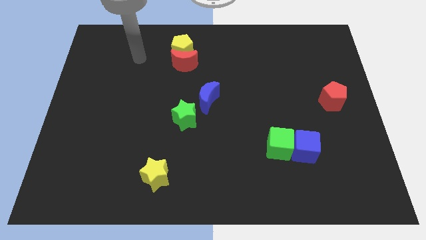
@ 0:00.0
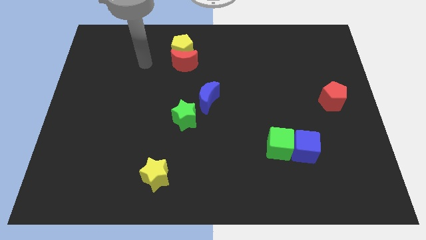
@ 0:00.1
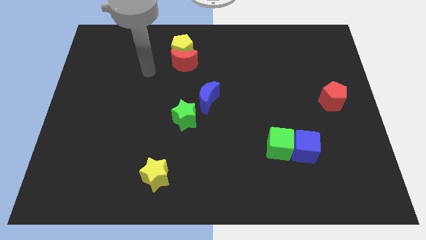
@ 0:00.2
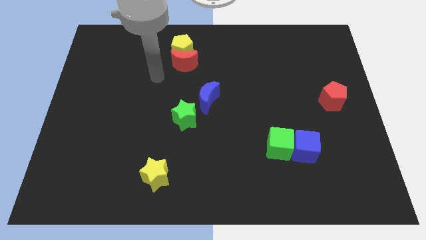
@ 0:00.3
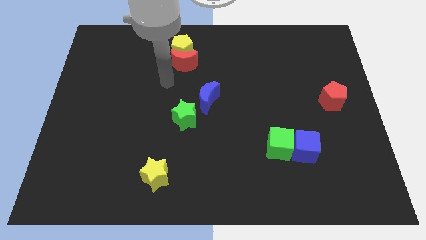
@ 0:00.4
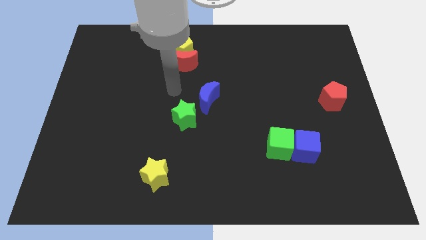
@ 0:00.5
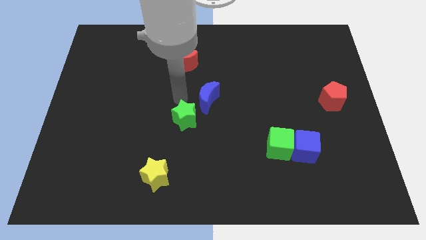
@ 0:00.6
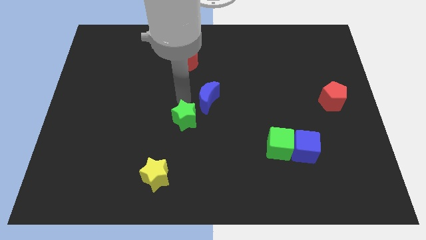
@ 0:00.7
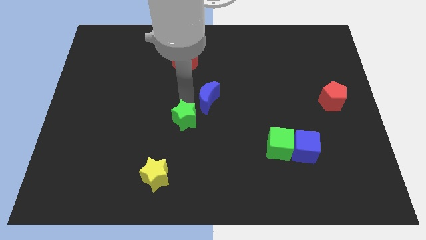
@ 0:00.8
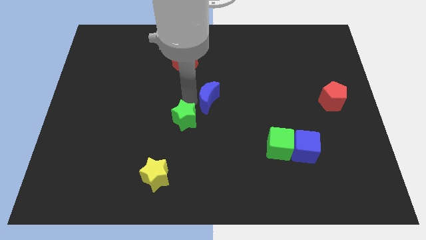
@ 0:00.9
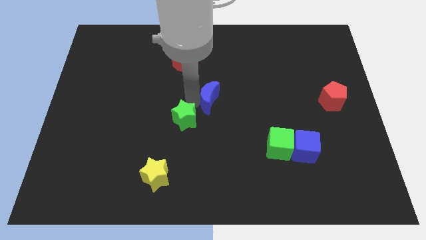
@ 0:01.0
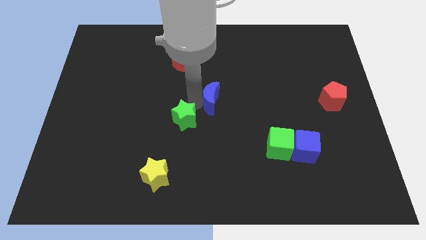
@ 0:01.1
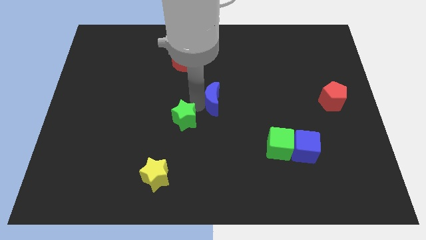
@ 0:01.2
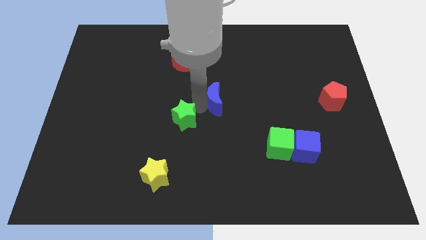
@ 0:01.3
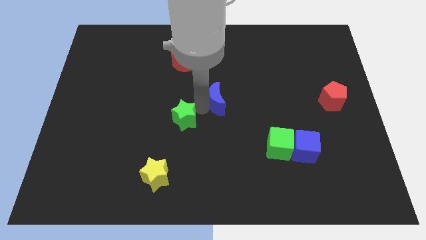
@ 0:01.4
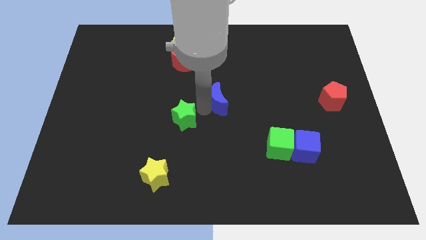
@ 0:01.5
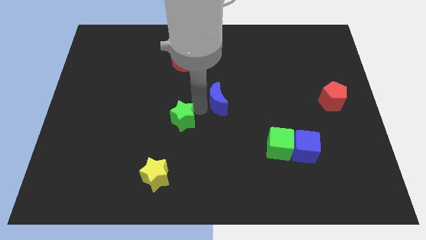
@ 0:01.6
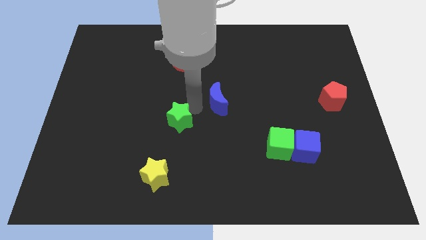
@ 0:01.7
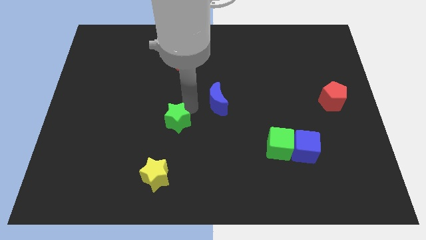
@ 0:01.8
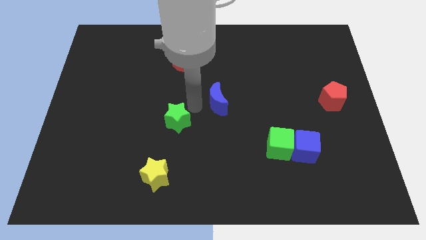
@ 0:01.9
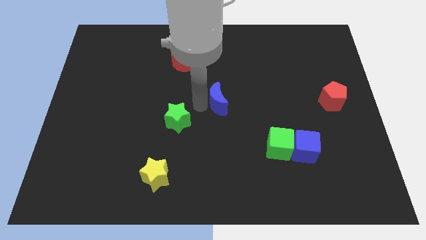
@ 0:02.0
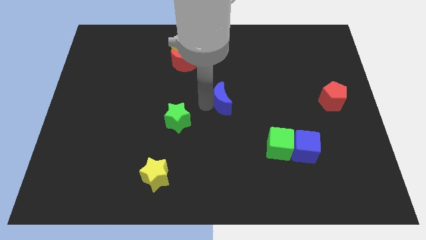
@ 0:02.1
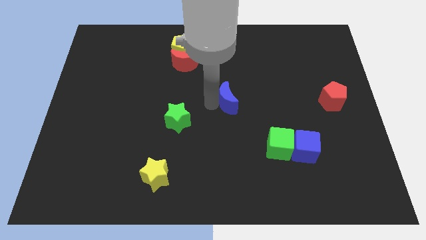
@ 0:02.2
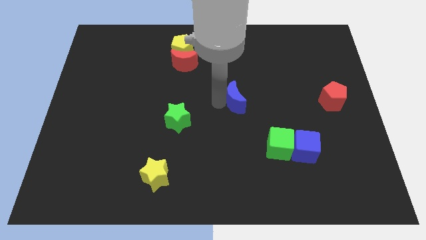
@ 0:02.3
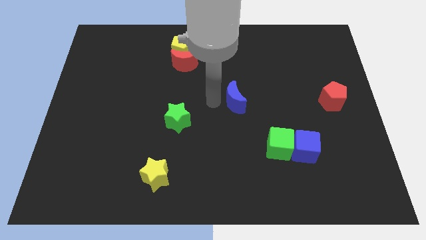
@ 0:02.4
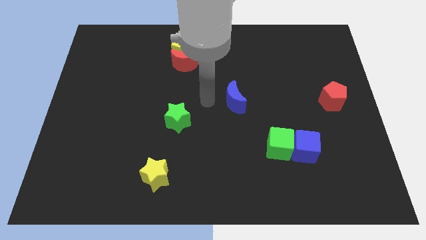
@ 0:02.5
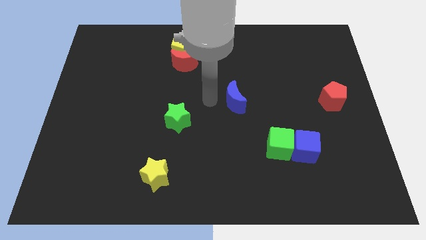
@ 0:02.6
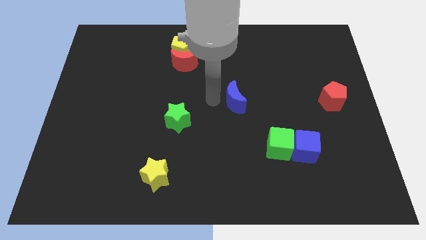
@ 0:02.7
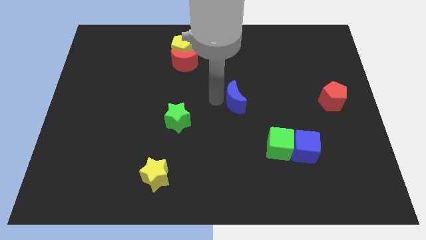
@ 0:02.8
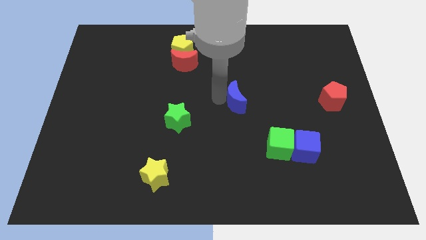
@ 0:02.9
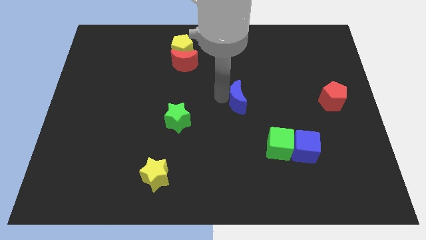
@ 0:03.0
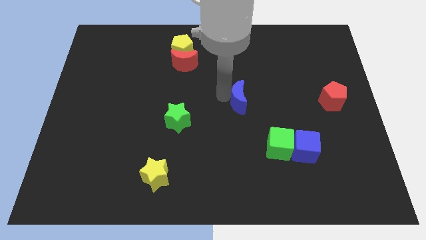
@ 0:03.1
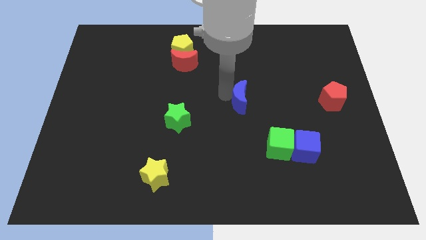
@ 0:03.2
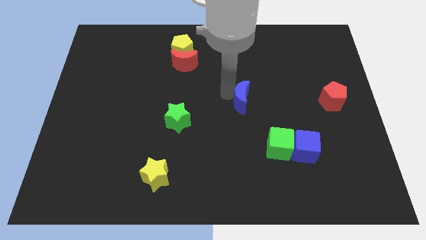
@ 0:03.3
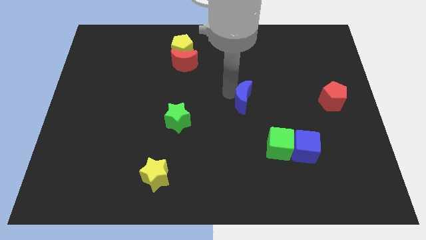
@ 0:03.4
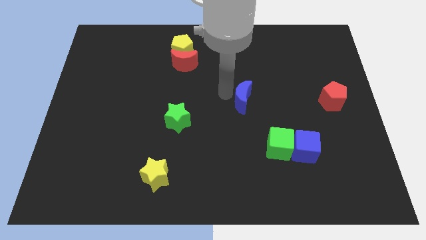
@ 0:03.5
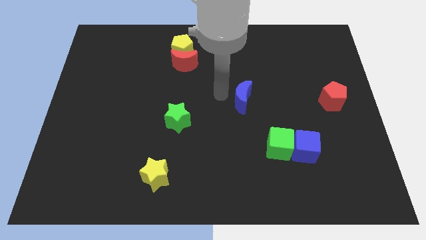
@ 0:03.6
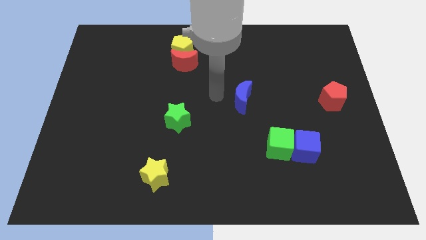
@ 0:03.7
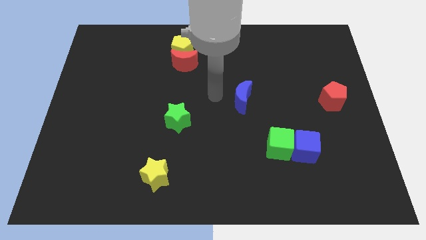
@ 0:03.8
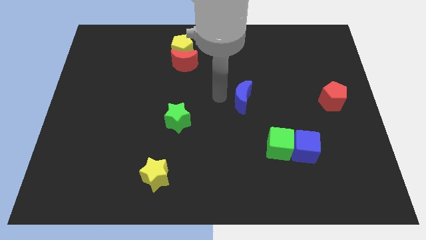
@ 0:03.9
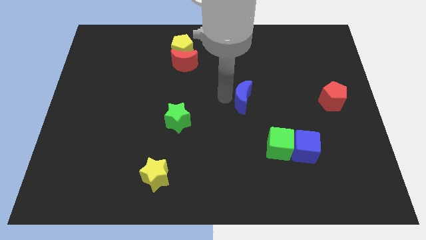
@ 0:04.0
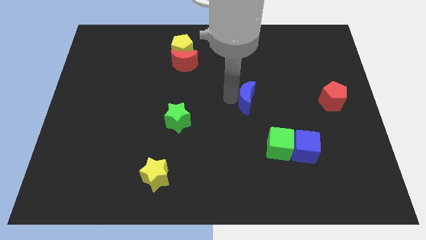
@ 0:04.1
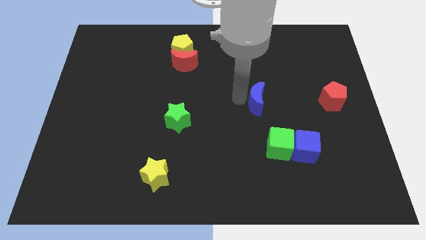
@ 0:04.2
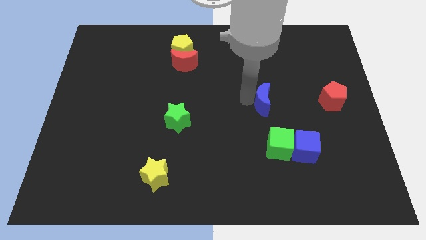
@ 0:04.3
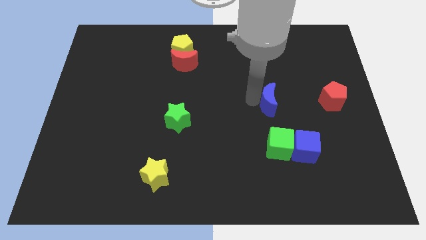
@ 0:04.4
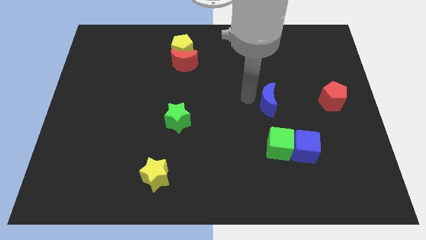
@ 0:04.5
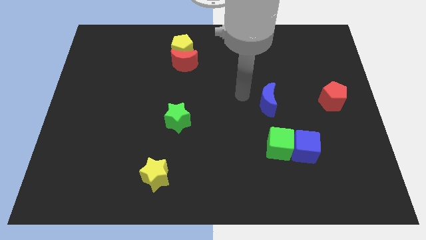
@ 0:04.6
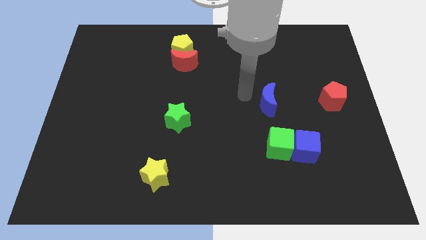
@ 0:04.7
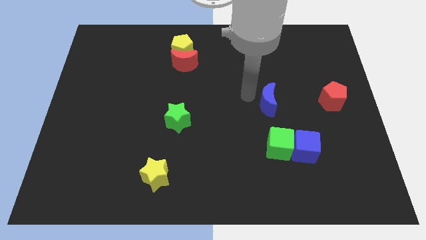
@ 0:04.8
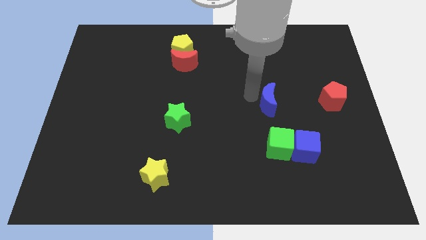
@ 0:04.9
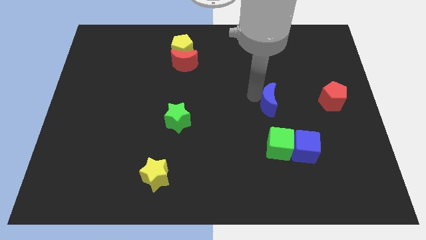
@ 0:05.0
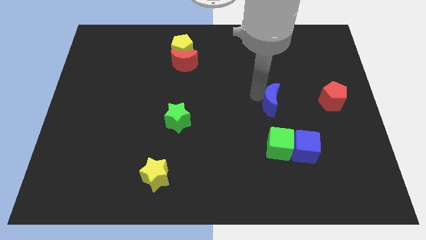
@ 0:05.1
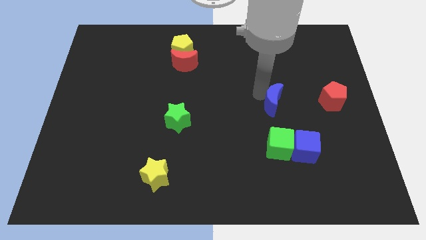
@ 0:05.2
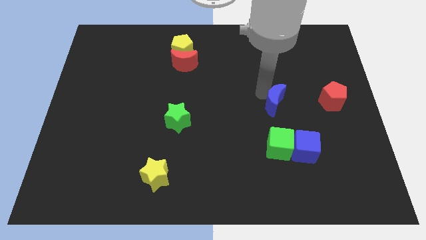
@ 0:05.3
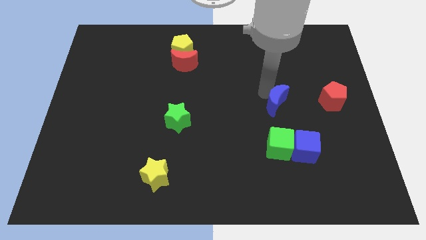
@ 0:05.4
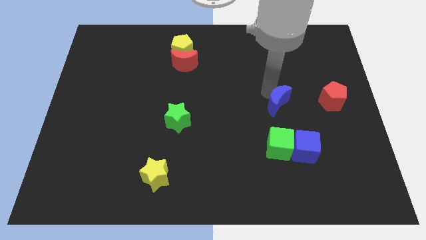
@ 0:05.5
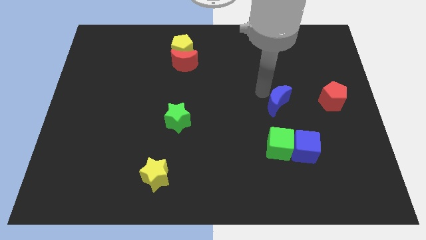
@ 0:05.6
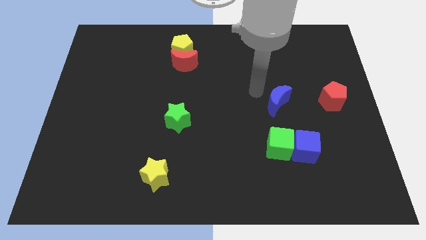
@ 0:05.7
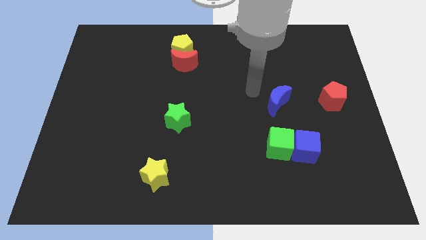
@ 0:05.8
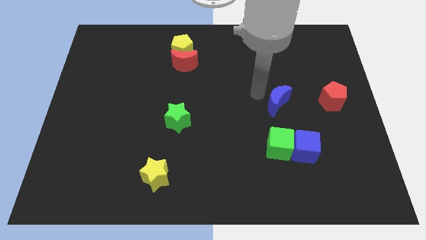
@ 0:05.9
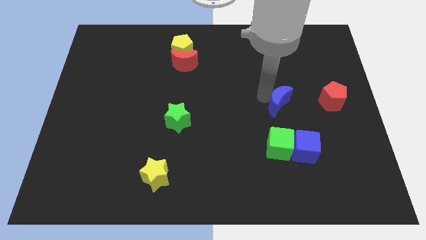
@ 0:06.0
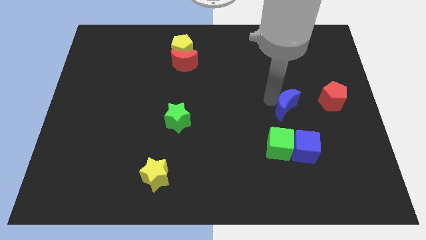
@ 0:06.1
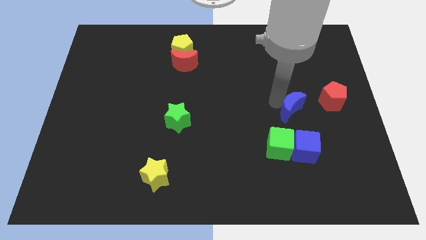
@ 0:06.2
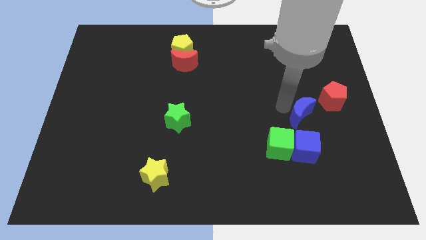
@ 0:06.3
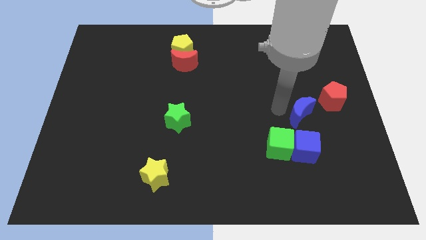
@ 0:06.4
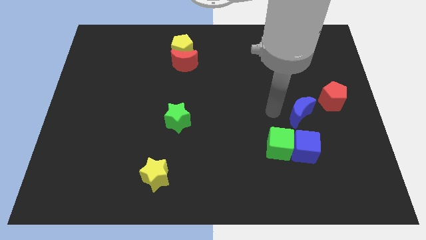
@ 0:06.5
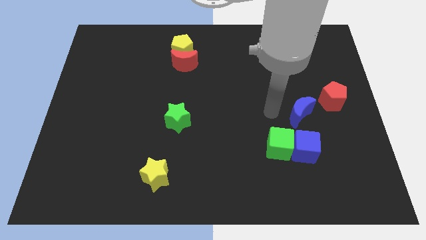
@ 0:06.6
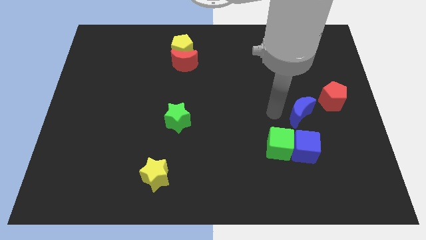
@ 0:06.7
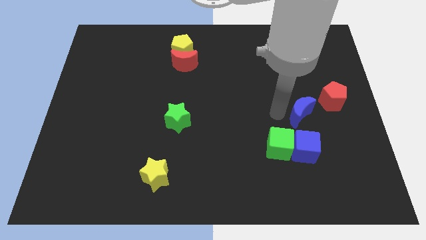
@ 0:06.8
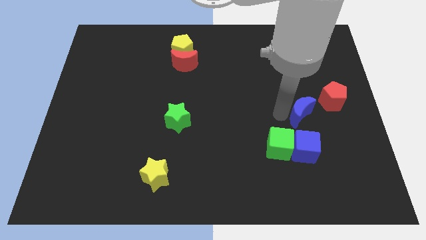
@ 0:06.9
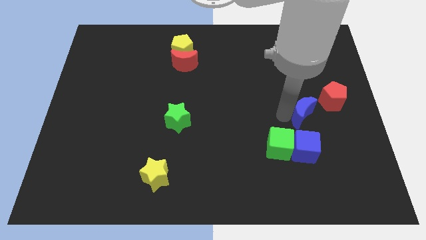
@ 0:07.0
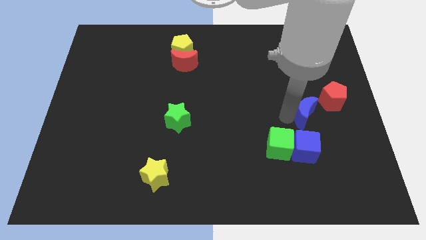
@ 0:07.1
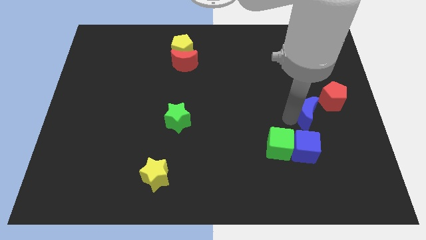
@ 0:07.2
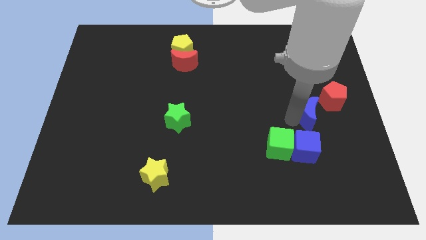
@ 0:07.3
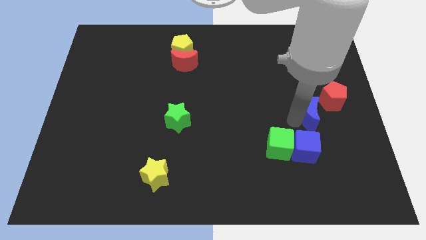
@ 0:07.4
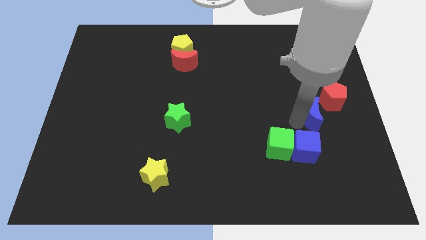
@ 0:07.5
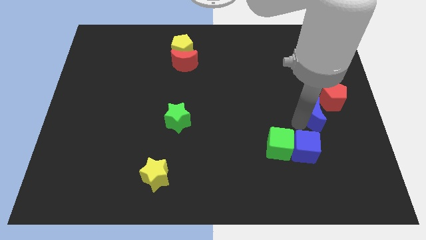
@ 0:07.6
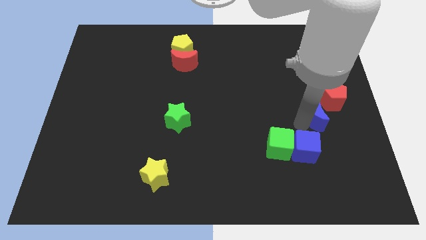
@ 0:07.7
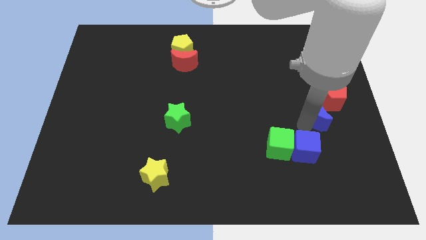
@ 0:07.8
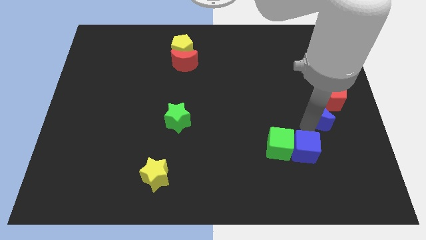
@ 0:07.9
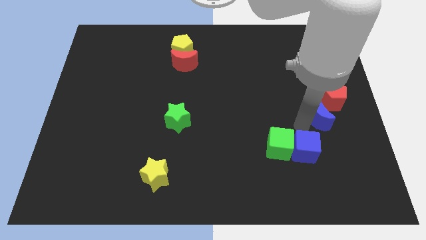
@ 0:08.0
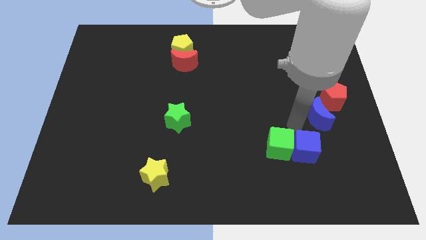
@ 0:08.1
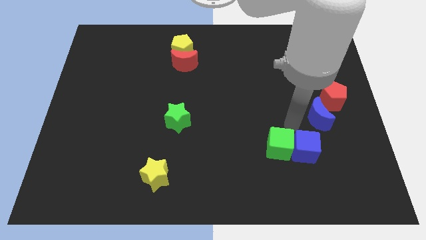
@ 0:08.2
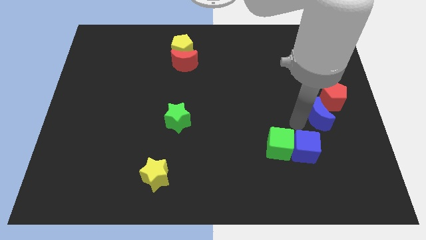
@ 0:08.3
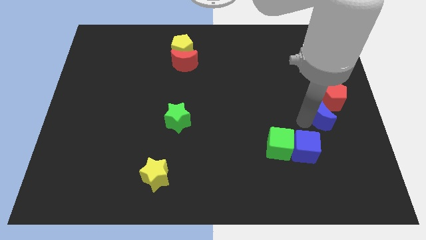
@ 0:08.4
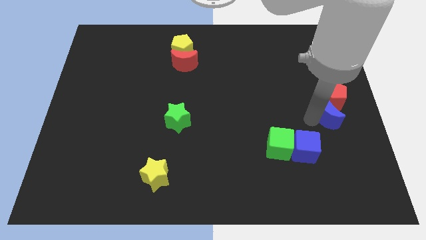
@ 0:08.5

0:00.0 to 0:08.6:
move the blue moon to the right side of the board
